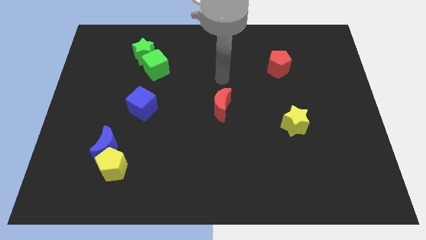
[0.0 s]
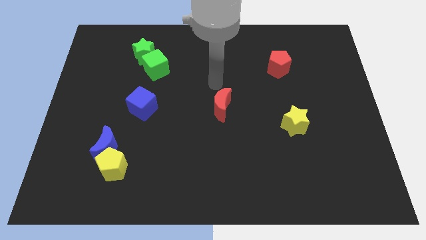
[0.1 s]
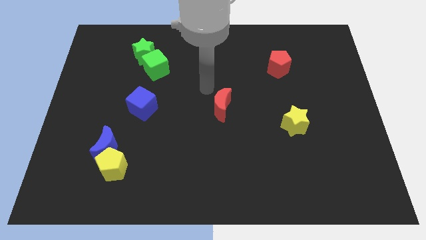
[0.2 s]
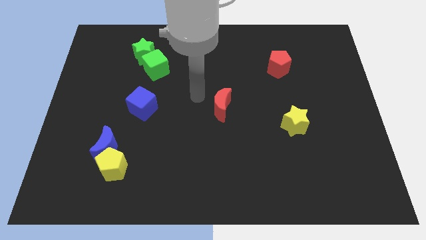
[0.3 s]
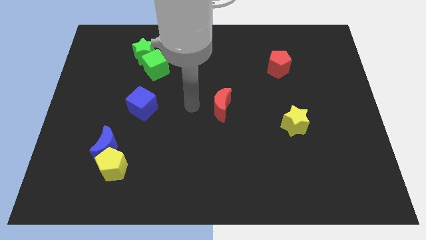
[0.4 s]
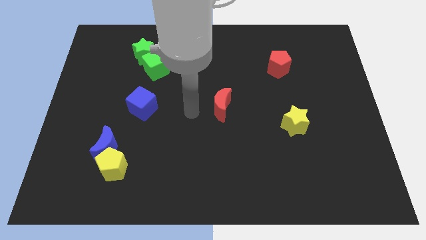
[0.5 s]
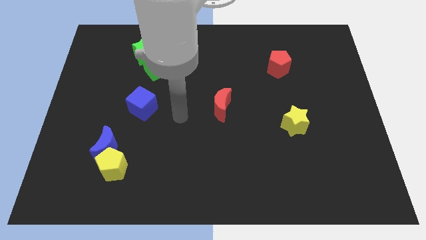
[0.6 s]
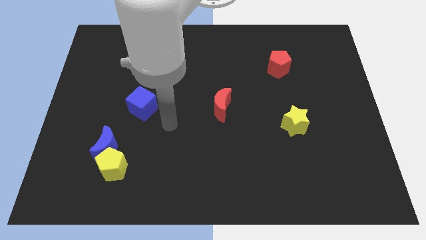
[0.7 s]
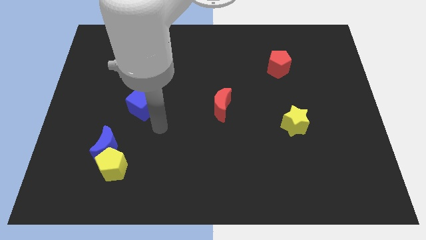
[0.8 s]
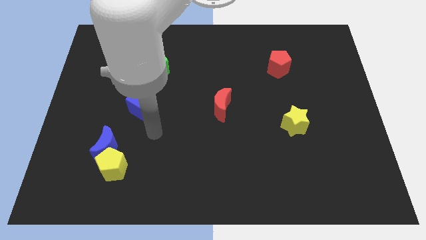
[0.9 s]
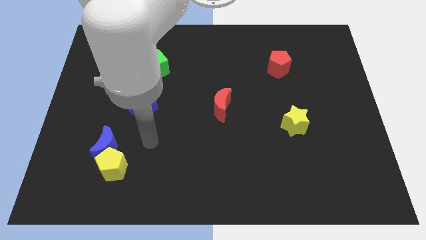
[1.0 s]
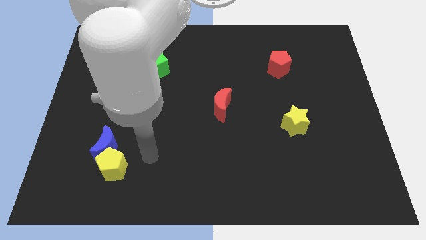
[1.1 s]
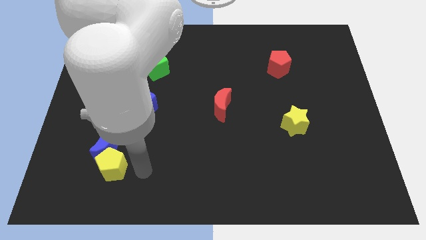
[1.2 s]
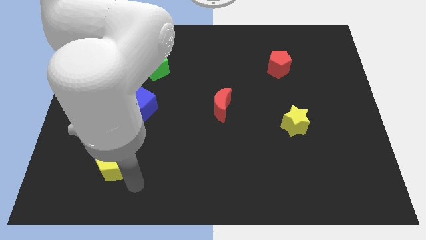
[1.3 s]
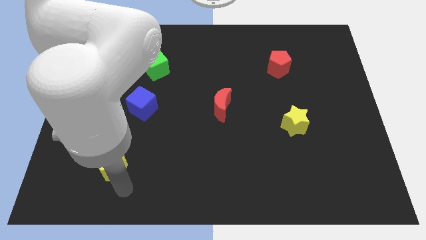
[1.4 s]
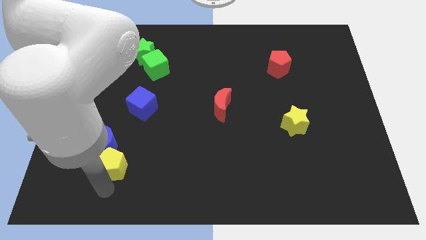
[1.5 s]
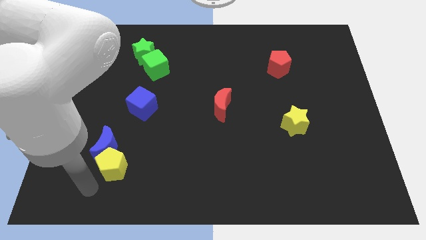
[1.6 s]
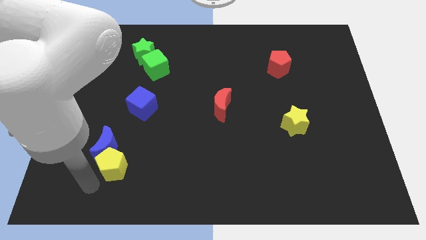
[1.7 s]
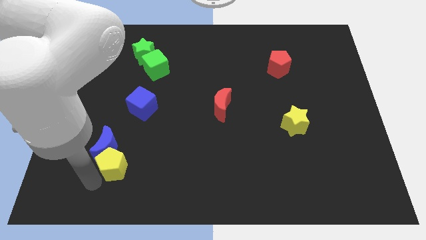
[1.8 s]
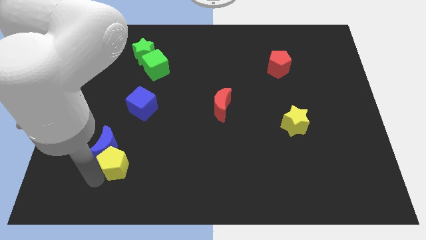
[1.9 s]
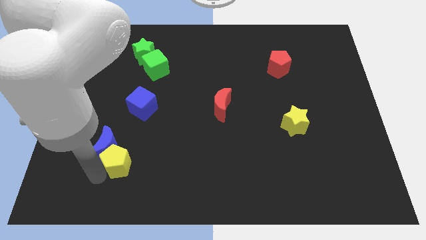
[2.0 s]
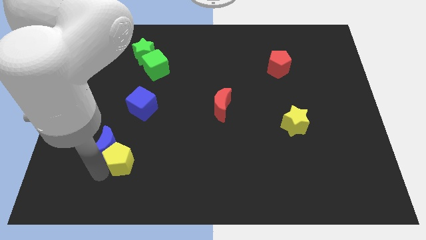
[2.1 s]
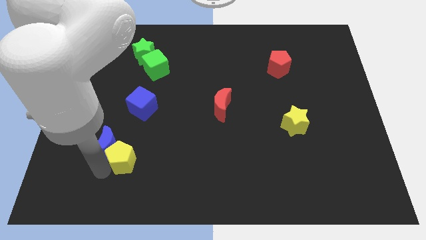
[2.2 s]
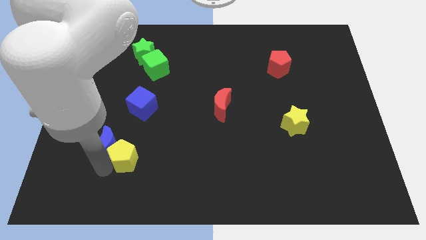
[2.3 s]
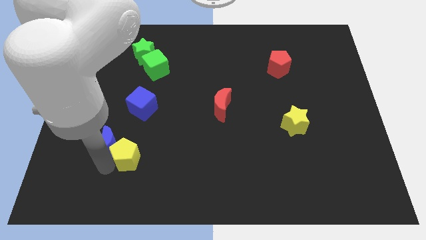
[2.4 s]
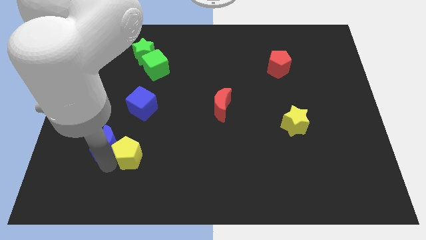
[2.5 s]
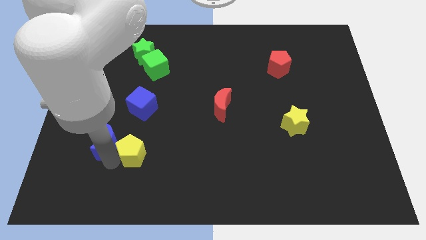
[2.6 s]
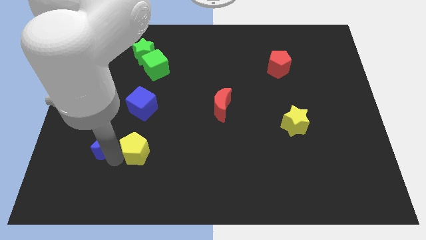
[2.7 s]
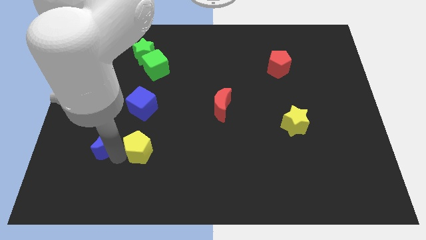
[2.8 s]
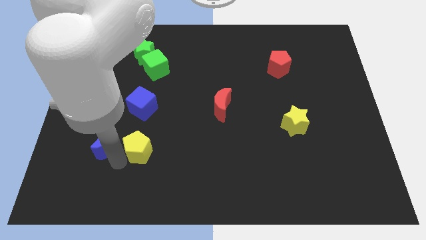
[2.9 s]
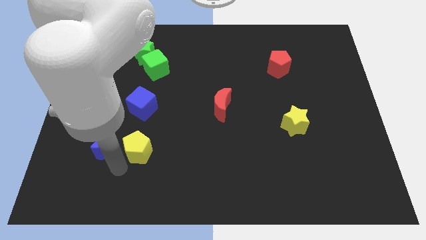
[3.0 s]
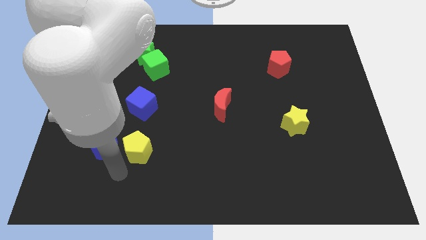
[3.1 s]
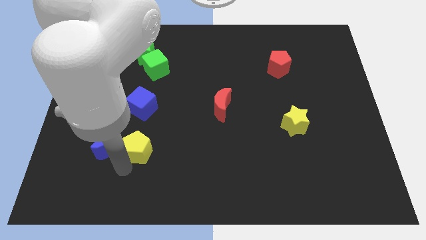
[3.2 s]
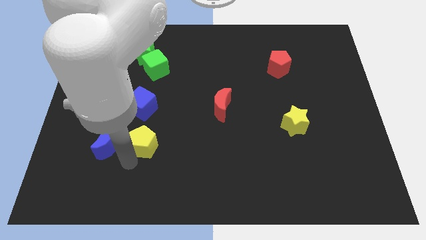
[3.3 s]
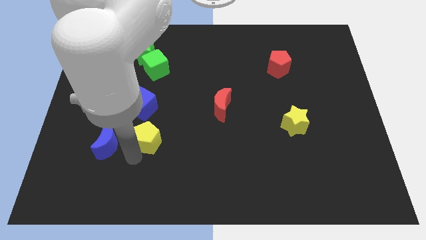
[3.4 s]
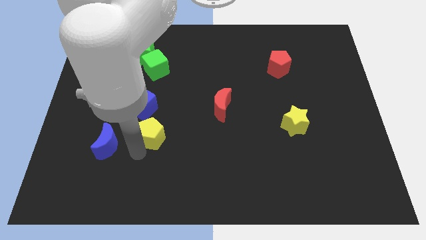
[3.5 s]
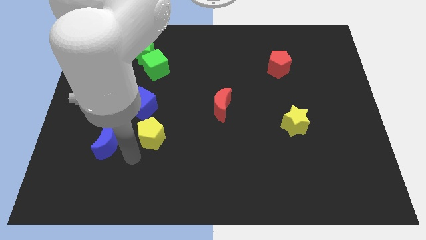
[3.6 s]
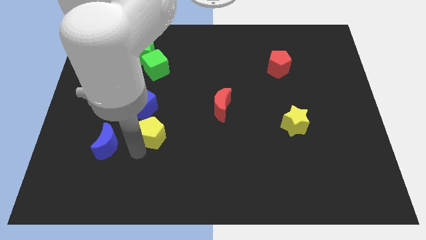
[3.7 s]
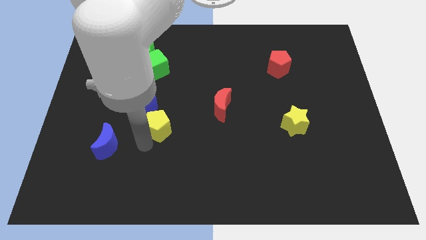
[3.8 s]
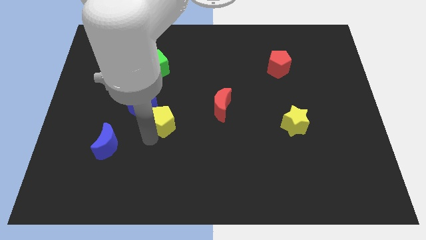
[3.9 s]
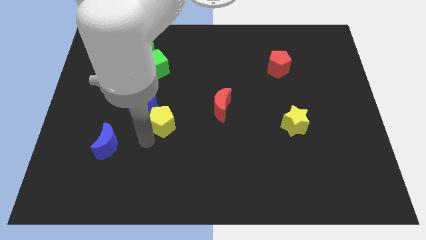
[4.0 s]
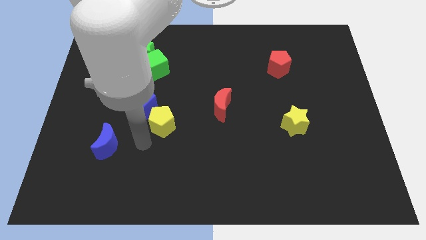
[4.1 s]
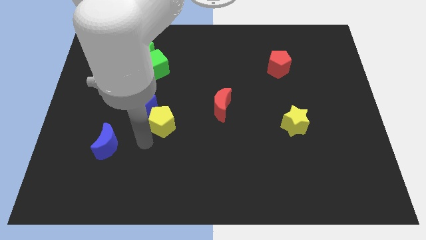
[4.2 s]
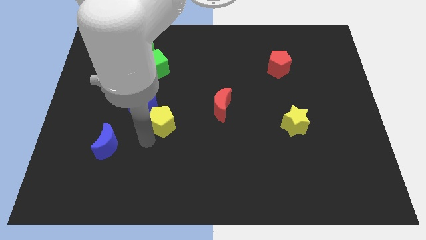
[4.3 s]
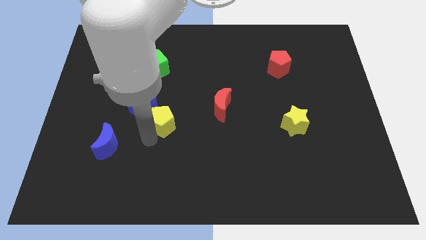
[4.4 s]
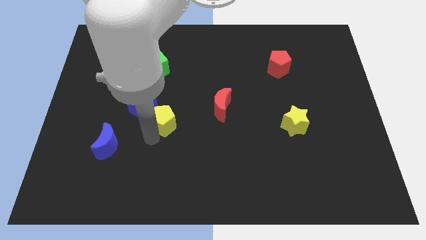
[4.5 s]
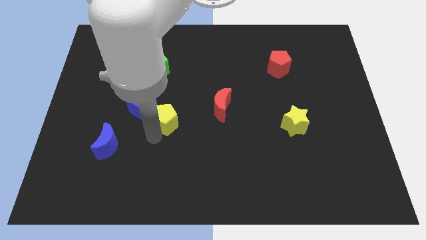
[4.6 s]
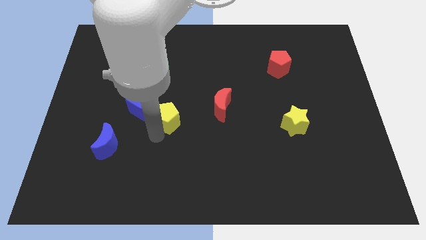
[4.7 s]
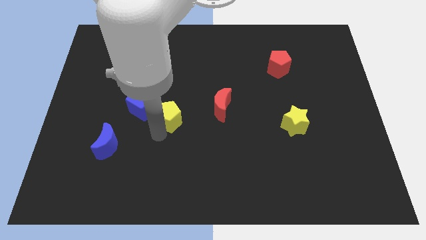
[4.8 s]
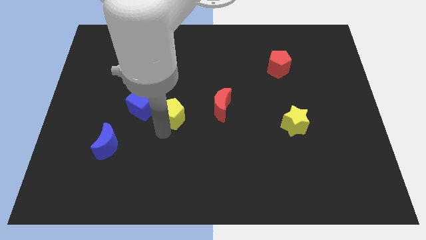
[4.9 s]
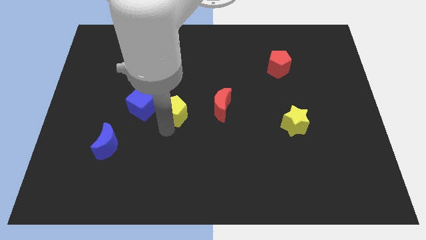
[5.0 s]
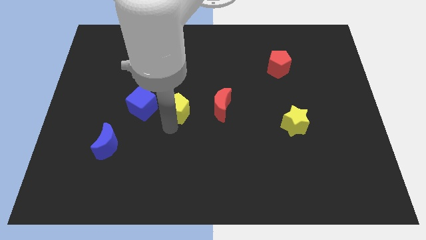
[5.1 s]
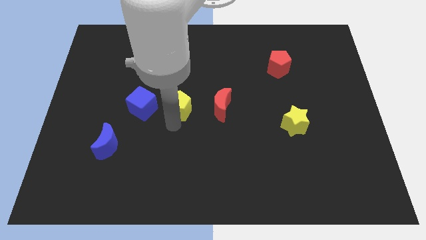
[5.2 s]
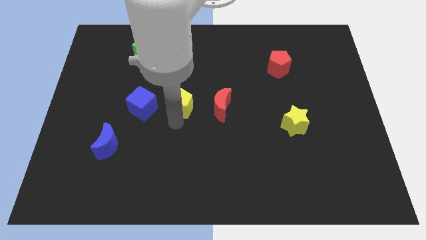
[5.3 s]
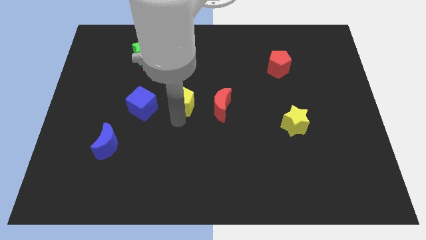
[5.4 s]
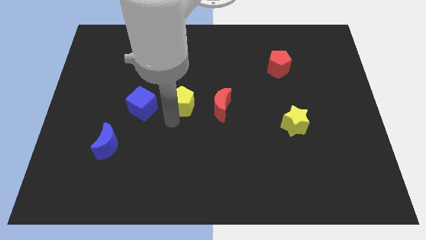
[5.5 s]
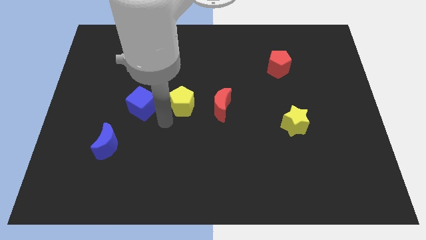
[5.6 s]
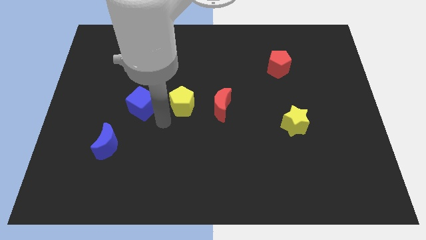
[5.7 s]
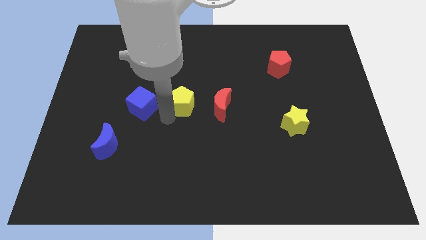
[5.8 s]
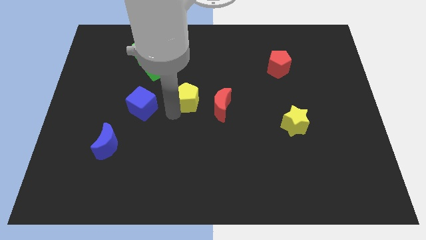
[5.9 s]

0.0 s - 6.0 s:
put the yellow pentagon diagonally up and to the left of the red moon

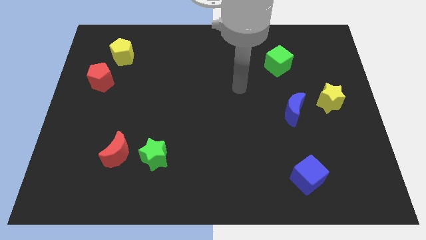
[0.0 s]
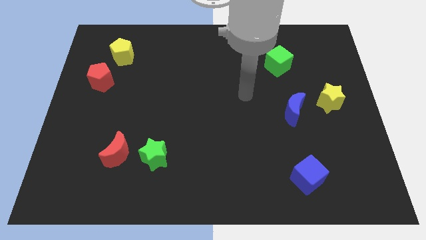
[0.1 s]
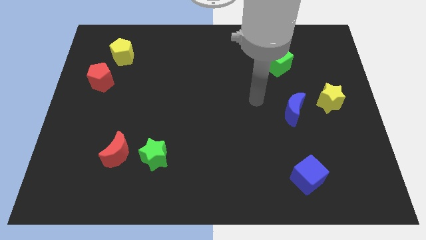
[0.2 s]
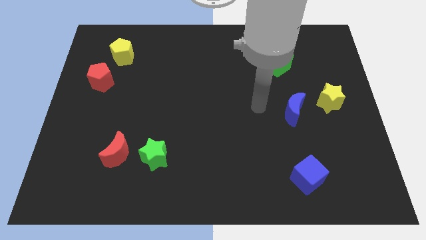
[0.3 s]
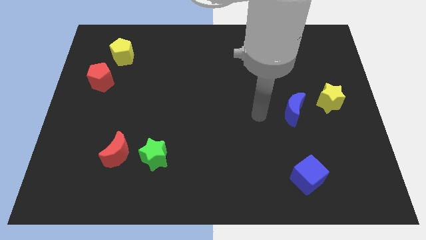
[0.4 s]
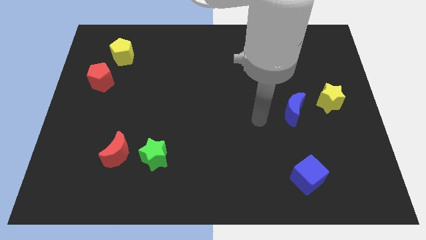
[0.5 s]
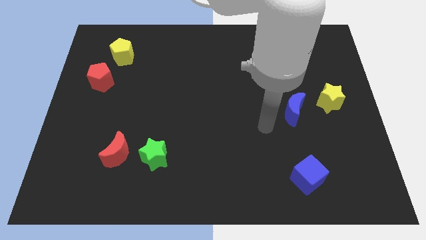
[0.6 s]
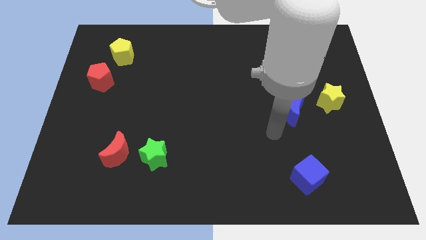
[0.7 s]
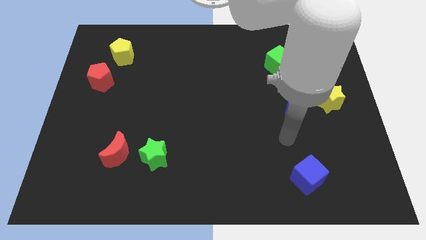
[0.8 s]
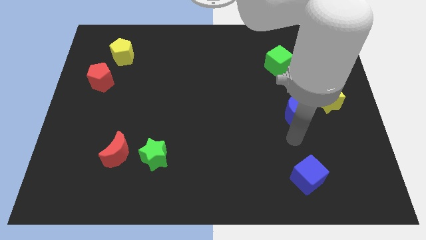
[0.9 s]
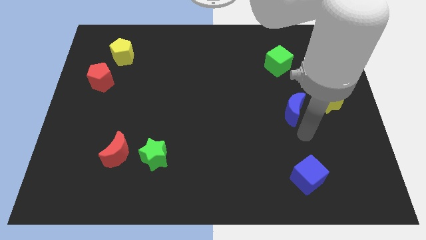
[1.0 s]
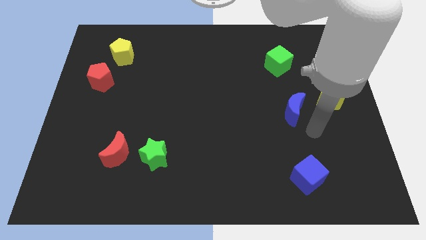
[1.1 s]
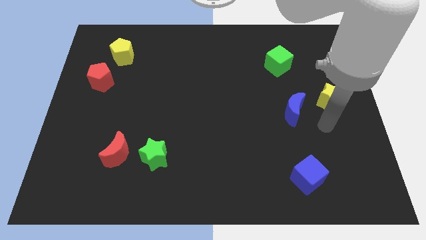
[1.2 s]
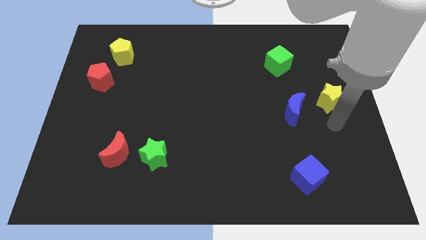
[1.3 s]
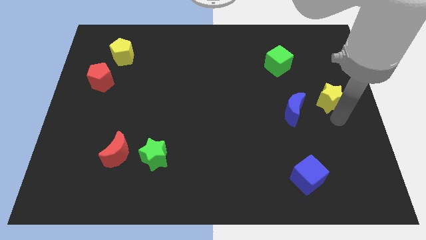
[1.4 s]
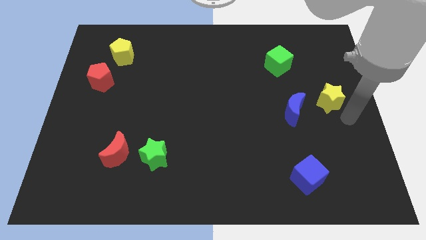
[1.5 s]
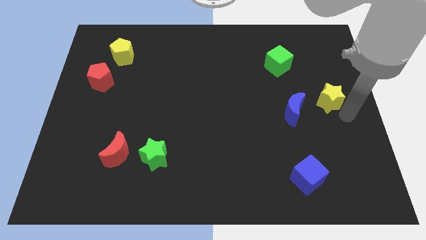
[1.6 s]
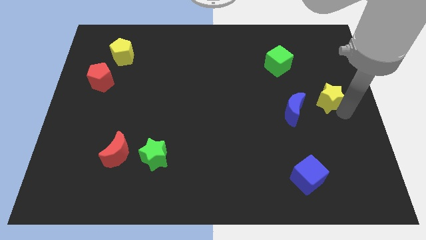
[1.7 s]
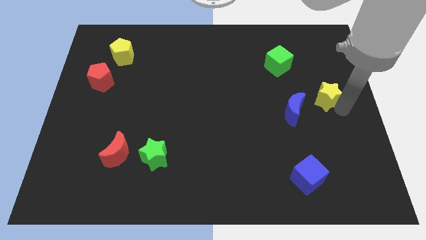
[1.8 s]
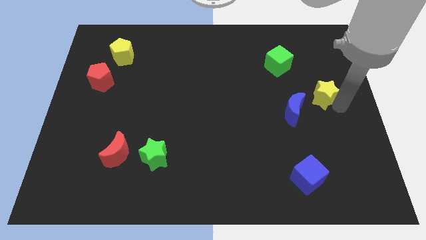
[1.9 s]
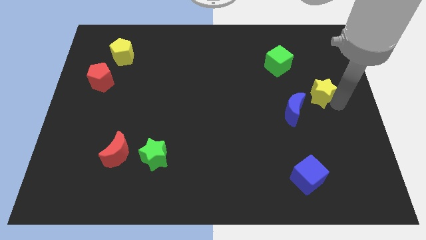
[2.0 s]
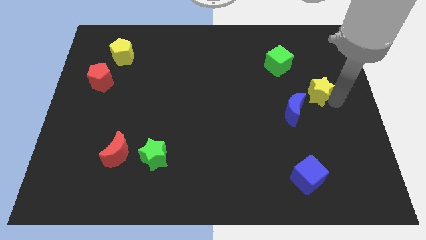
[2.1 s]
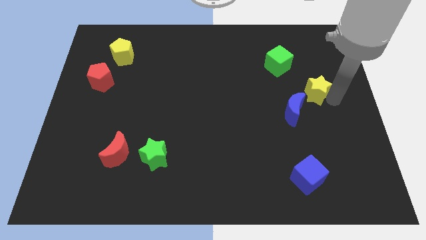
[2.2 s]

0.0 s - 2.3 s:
push the yellow star to the bottom right side of the green cube
